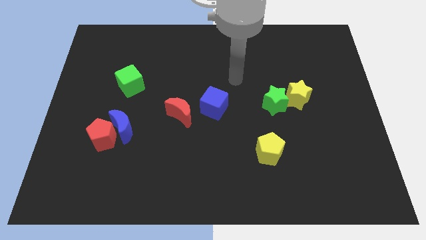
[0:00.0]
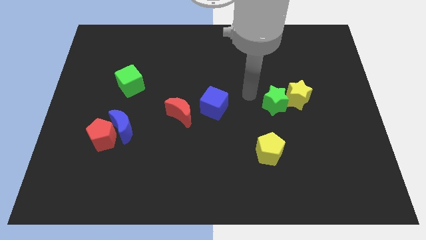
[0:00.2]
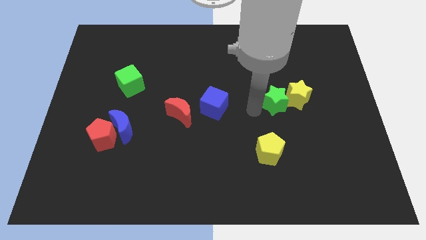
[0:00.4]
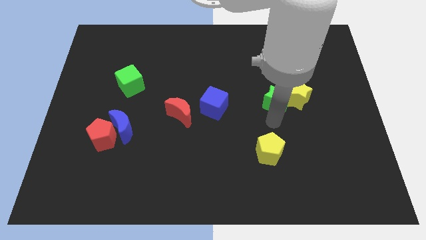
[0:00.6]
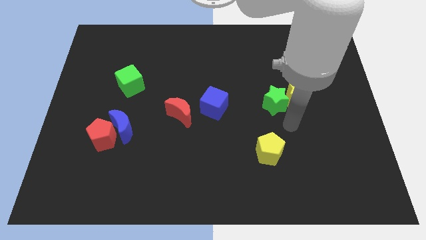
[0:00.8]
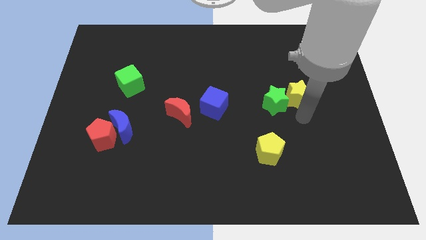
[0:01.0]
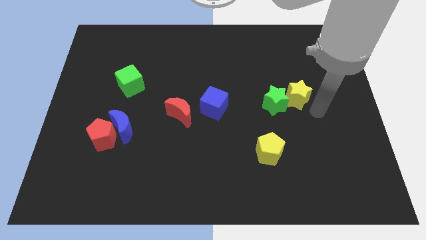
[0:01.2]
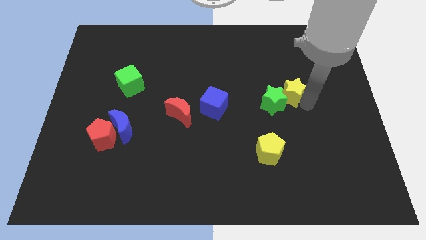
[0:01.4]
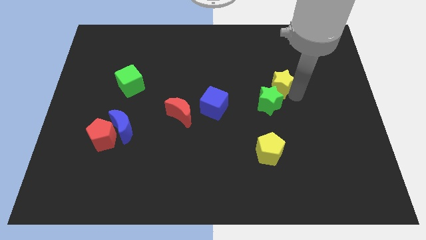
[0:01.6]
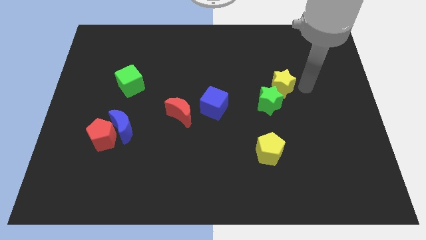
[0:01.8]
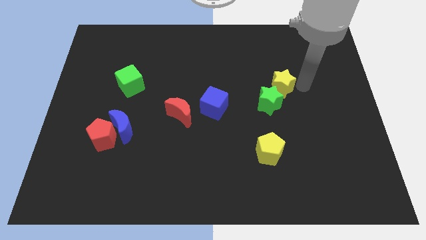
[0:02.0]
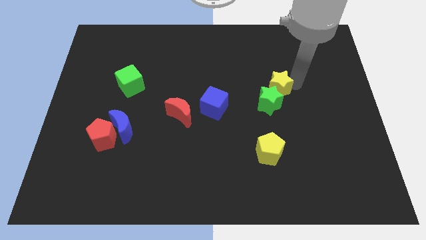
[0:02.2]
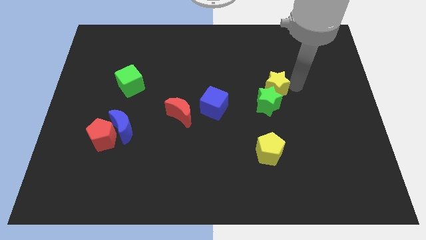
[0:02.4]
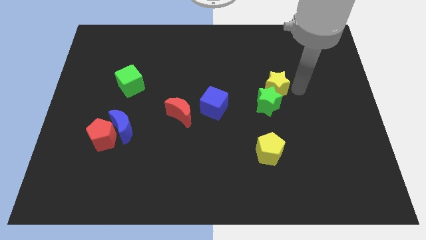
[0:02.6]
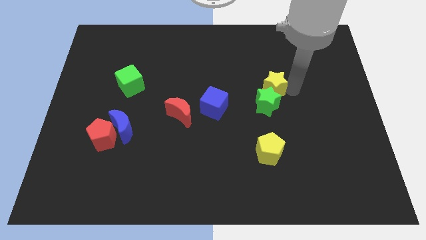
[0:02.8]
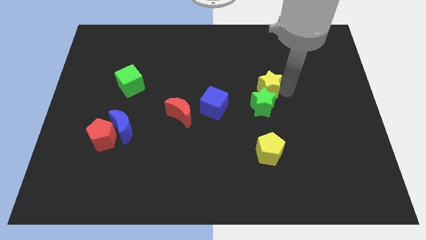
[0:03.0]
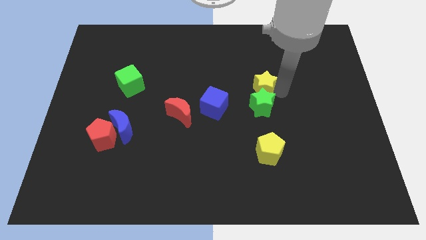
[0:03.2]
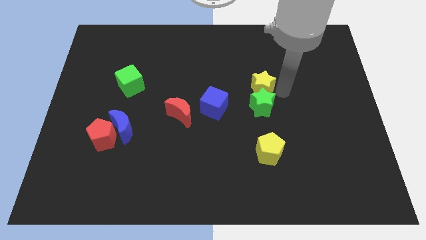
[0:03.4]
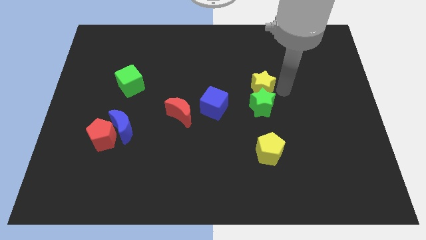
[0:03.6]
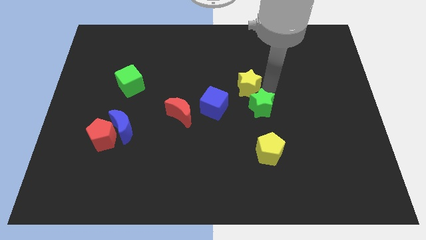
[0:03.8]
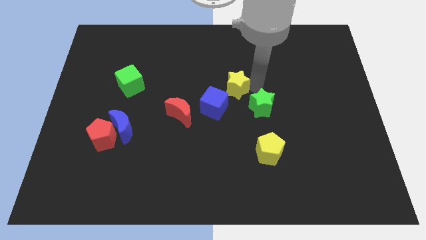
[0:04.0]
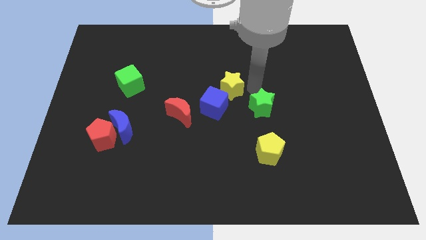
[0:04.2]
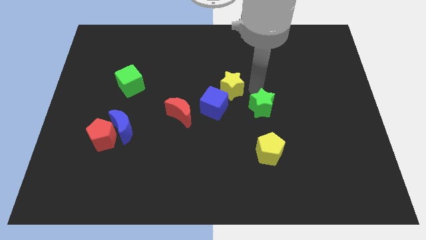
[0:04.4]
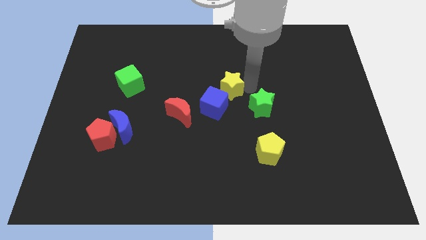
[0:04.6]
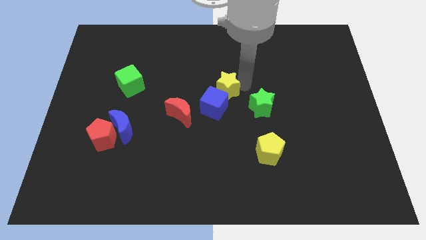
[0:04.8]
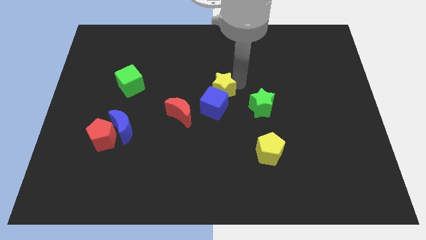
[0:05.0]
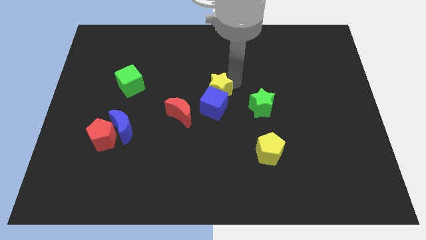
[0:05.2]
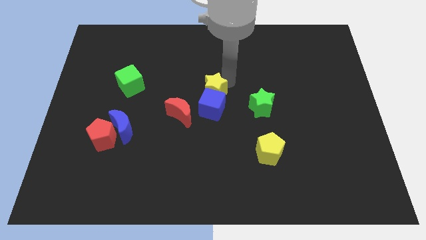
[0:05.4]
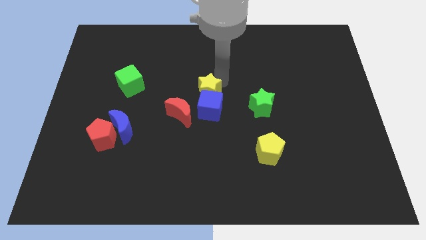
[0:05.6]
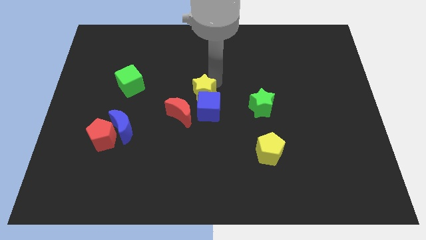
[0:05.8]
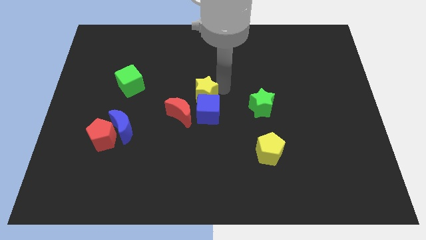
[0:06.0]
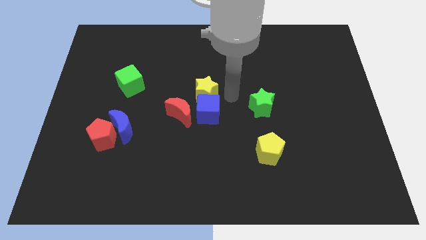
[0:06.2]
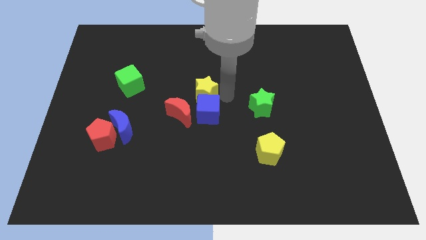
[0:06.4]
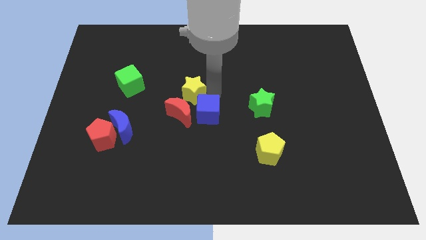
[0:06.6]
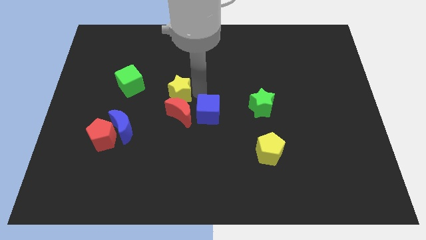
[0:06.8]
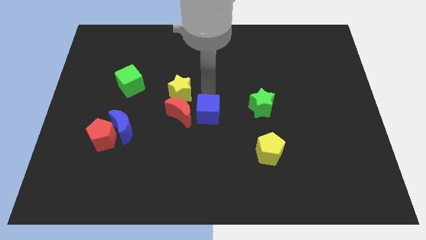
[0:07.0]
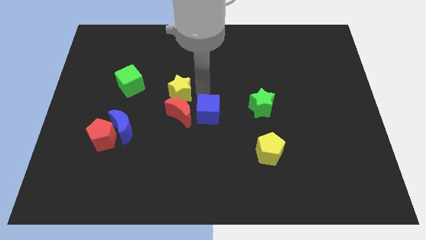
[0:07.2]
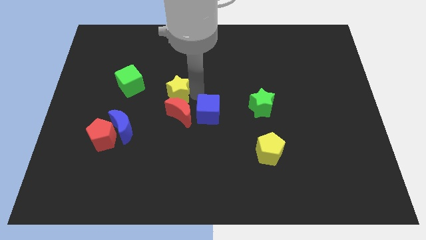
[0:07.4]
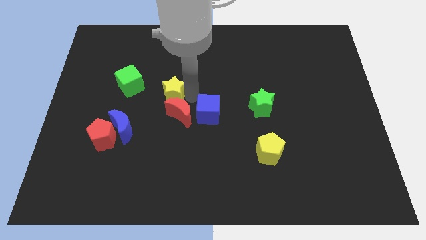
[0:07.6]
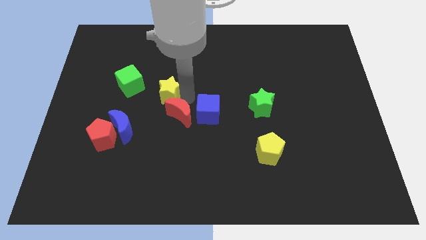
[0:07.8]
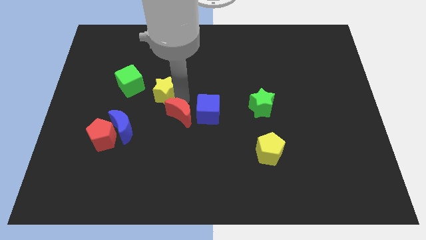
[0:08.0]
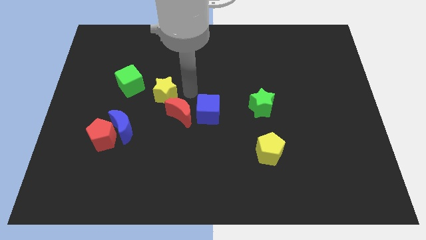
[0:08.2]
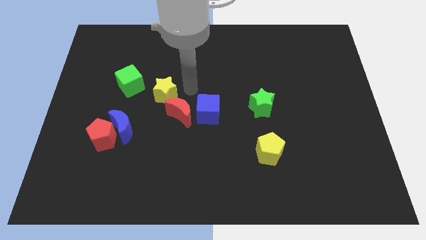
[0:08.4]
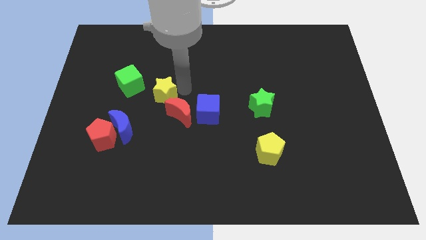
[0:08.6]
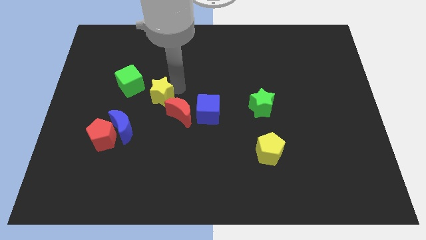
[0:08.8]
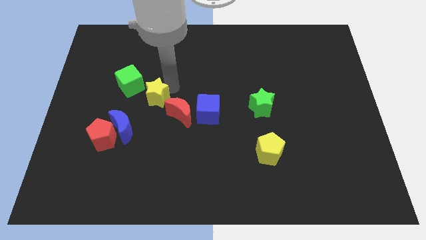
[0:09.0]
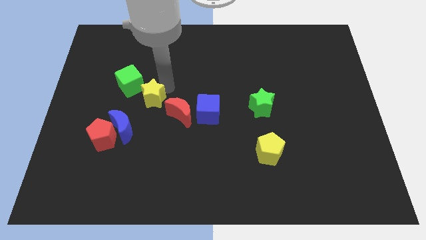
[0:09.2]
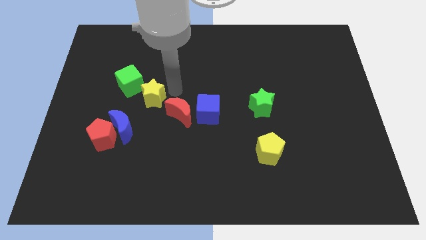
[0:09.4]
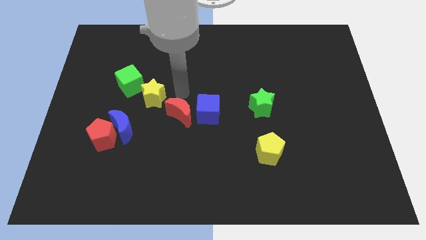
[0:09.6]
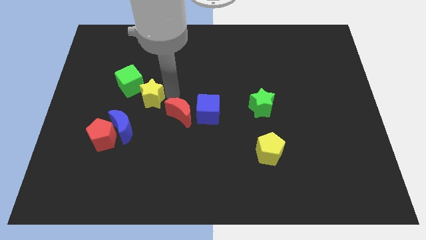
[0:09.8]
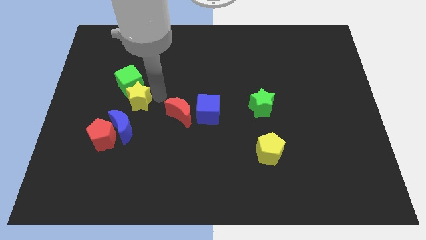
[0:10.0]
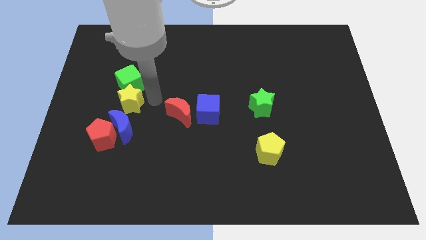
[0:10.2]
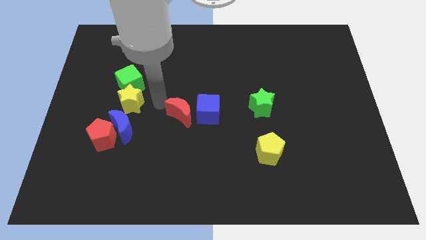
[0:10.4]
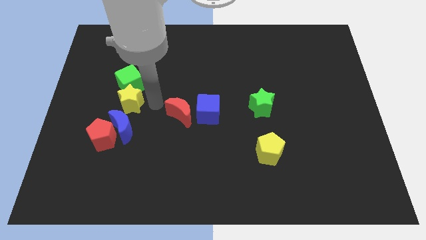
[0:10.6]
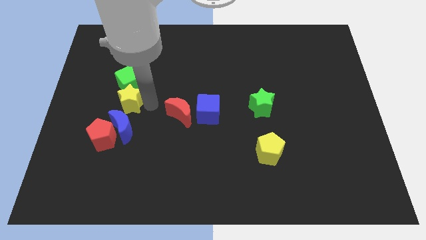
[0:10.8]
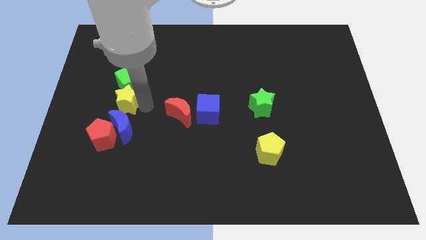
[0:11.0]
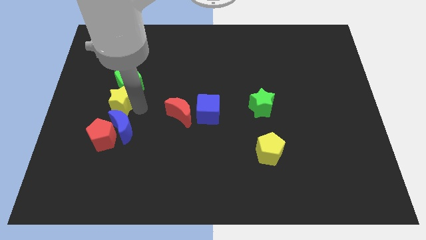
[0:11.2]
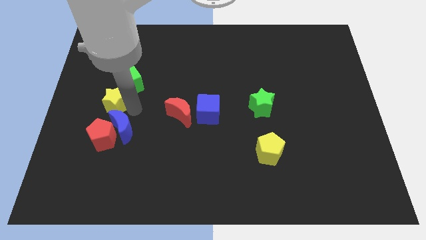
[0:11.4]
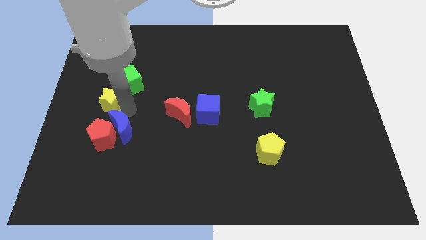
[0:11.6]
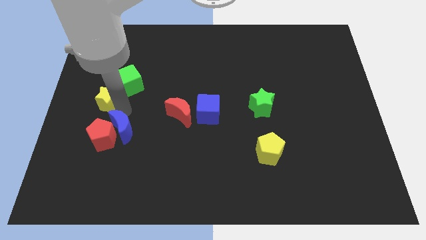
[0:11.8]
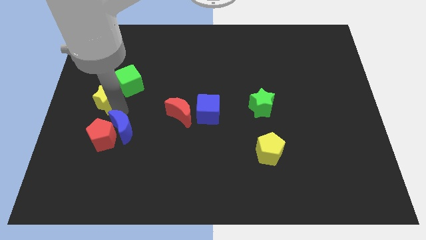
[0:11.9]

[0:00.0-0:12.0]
slide the yellow star to the left side

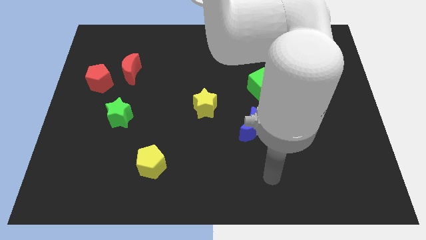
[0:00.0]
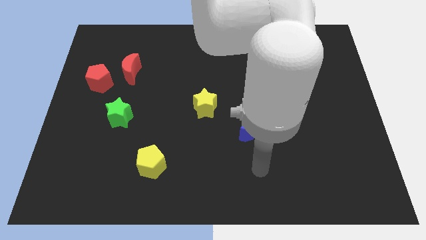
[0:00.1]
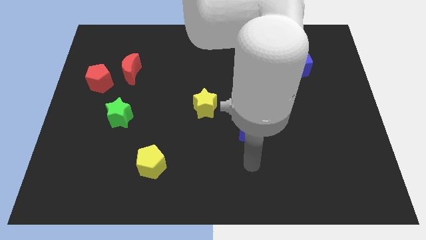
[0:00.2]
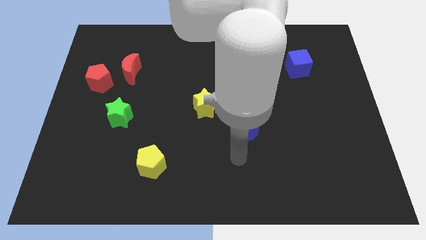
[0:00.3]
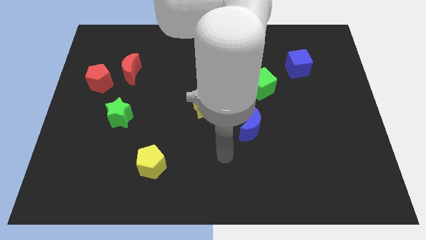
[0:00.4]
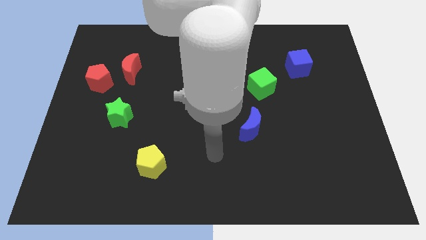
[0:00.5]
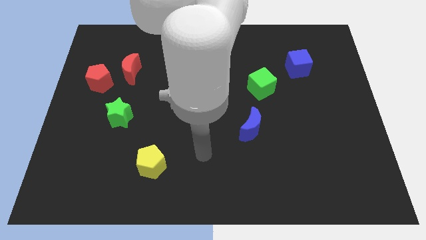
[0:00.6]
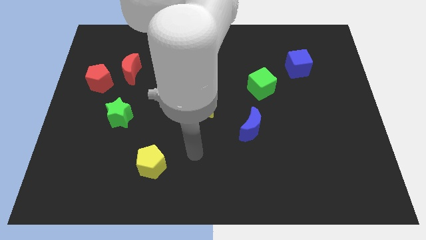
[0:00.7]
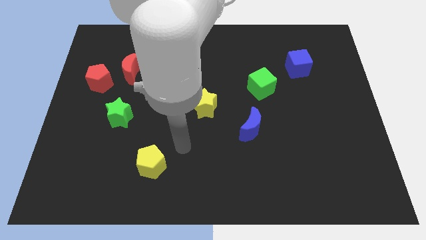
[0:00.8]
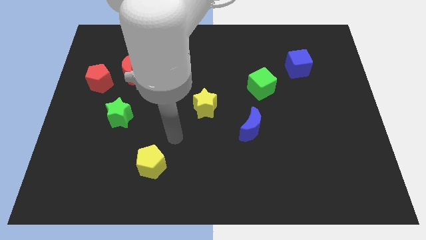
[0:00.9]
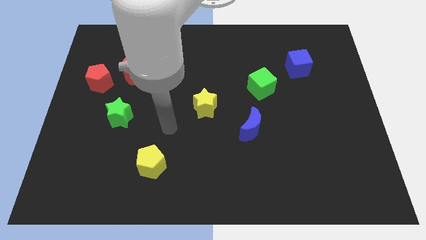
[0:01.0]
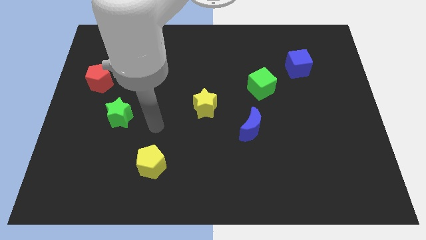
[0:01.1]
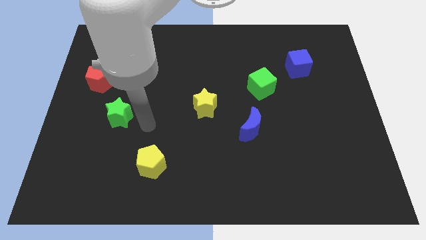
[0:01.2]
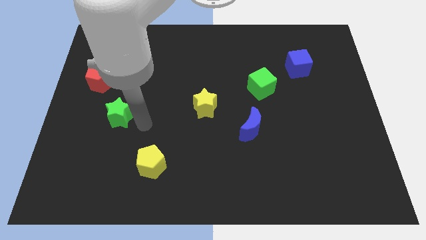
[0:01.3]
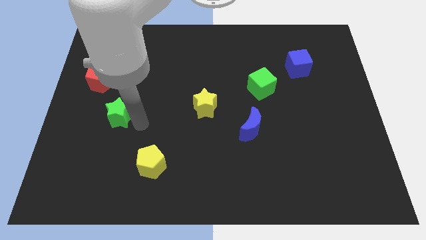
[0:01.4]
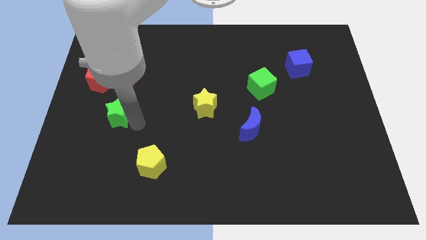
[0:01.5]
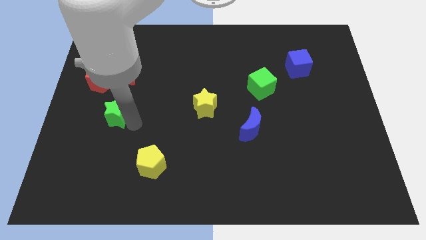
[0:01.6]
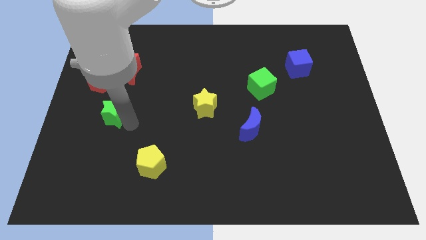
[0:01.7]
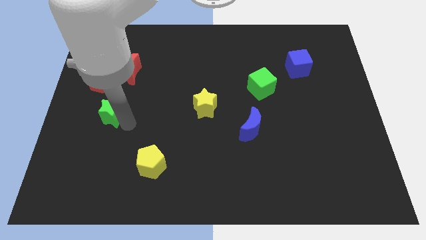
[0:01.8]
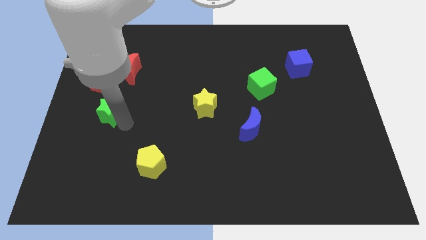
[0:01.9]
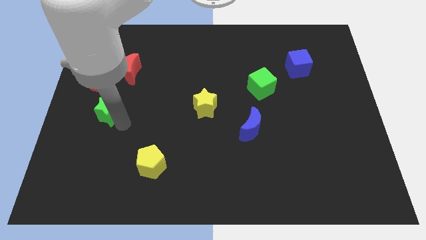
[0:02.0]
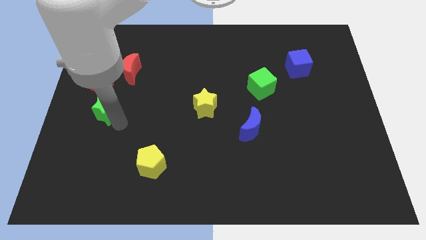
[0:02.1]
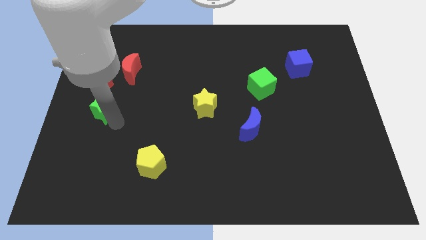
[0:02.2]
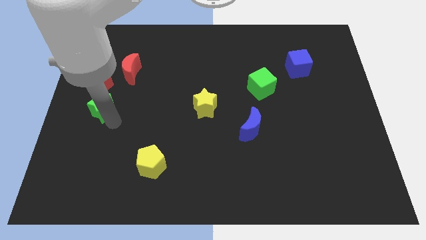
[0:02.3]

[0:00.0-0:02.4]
push the green star to the center left
